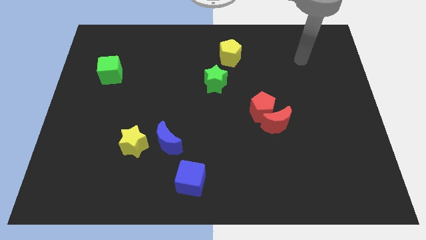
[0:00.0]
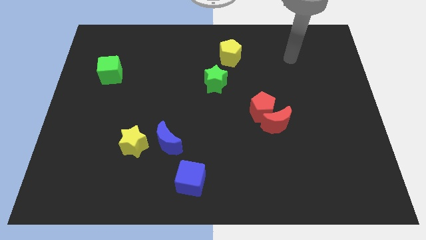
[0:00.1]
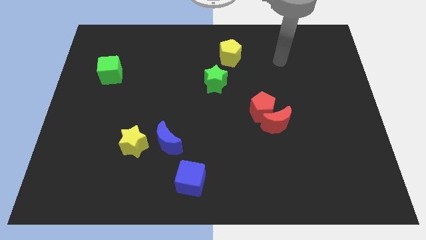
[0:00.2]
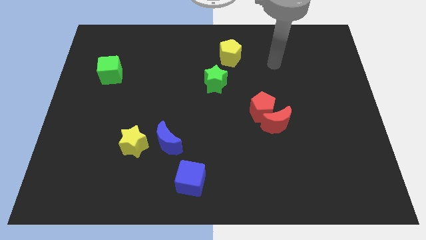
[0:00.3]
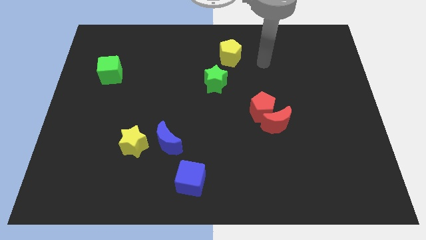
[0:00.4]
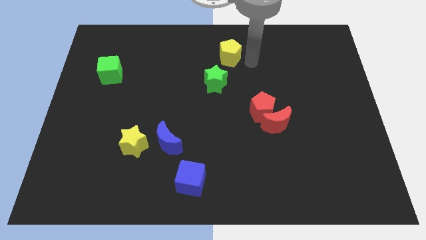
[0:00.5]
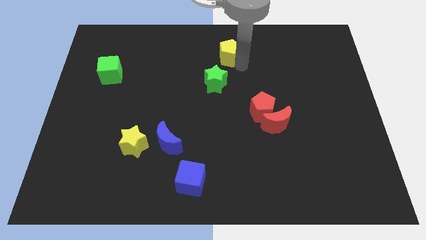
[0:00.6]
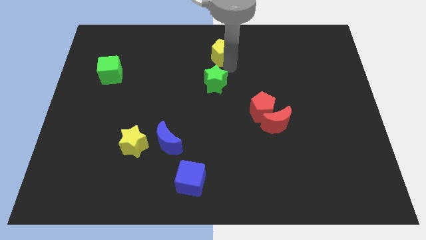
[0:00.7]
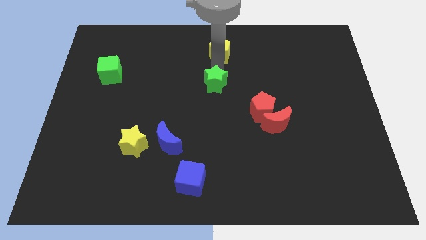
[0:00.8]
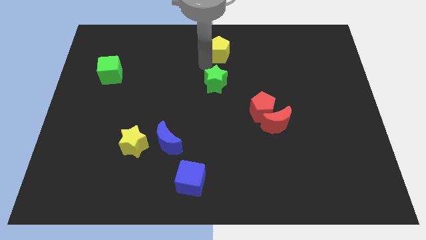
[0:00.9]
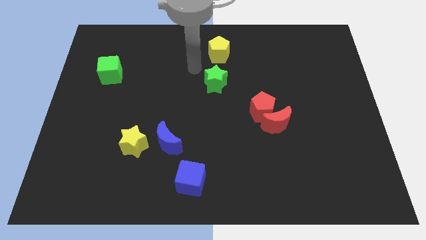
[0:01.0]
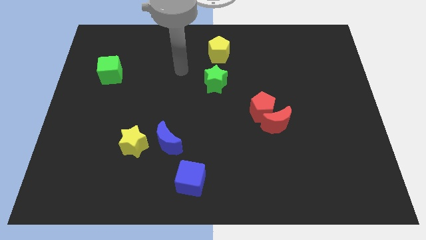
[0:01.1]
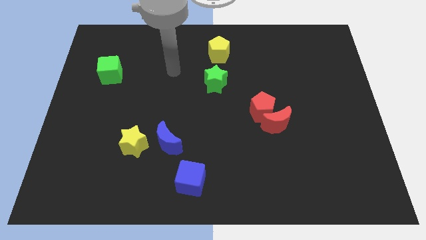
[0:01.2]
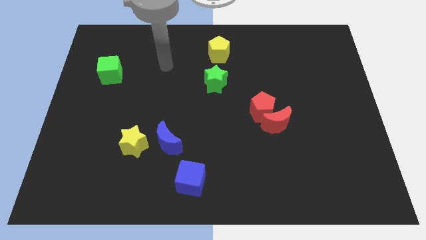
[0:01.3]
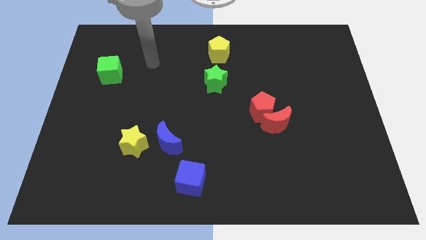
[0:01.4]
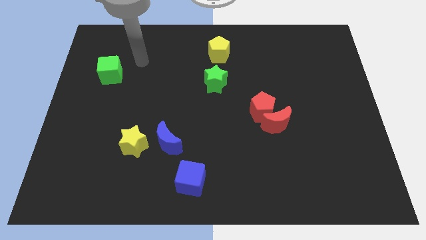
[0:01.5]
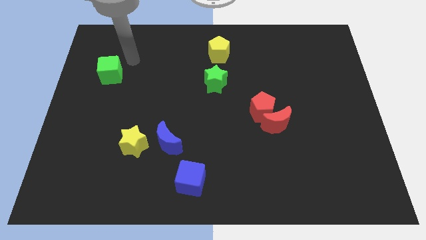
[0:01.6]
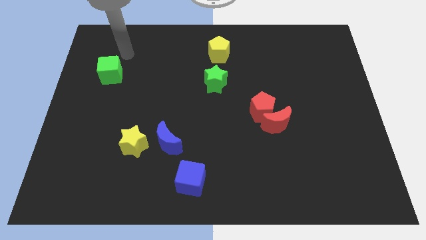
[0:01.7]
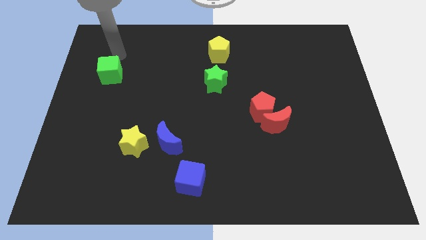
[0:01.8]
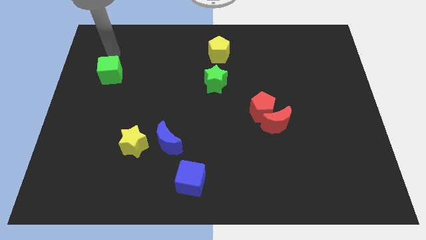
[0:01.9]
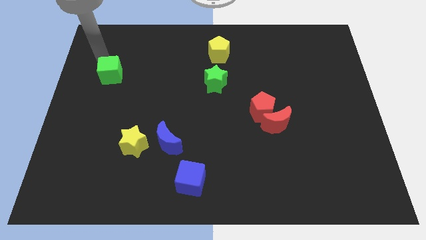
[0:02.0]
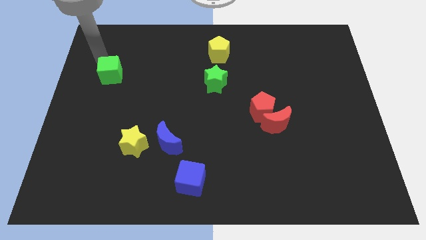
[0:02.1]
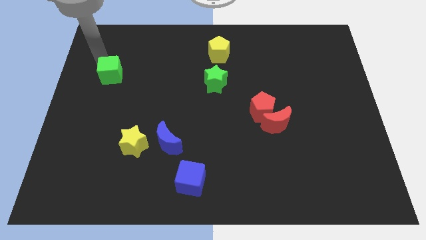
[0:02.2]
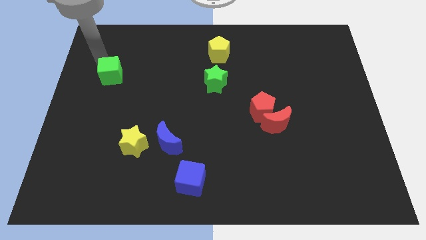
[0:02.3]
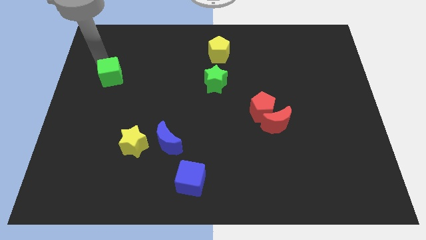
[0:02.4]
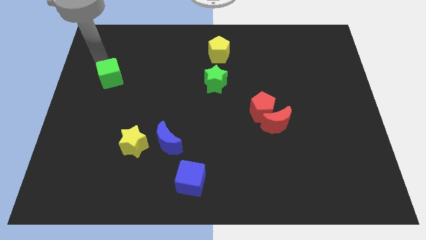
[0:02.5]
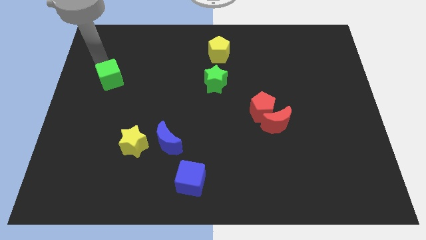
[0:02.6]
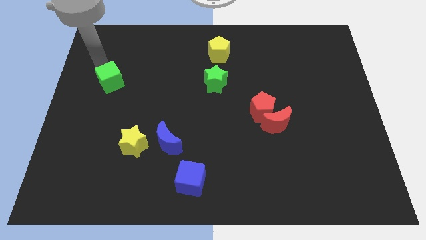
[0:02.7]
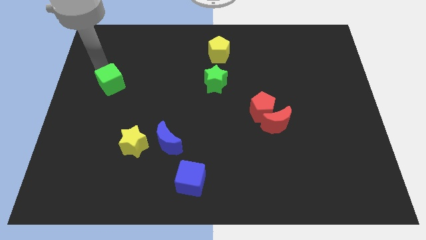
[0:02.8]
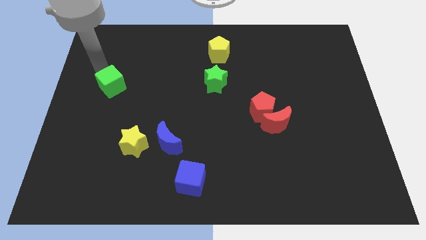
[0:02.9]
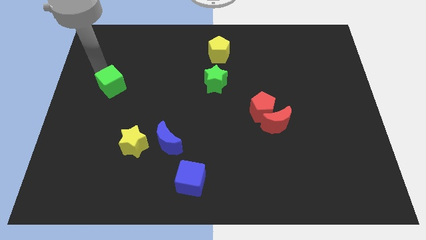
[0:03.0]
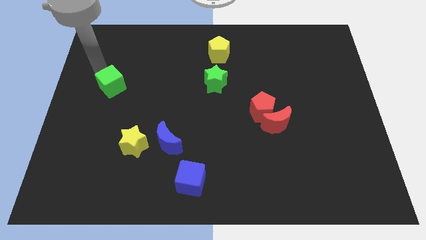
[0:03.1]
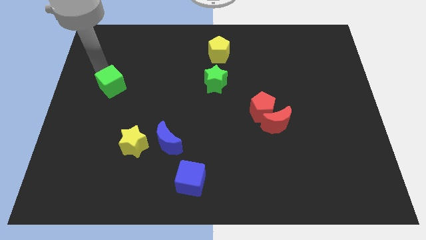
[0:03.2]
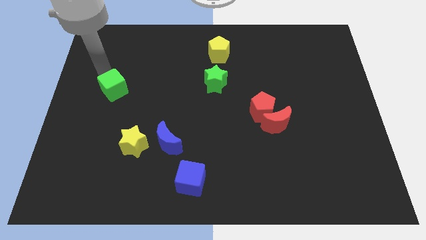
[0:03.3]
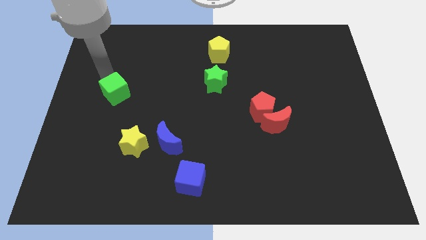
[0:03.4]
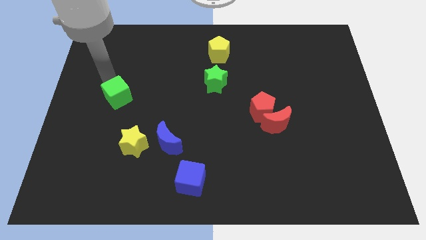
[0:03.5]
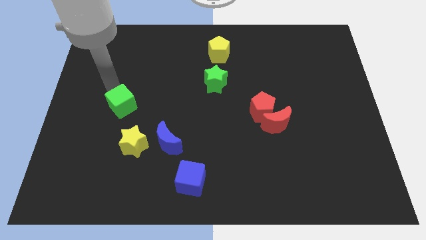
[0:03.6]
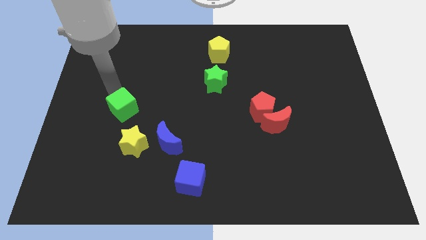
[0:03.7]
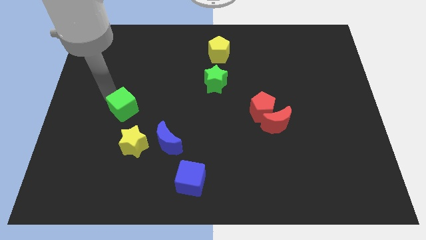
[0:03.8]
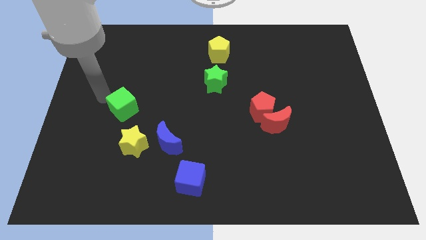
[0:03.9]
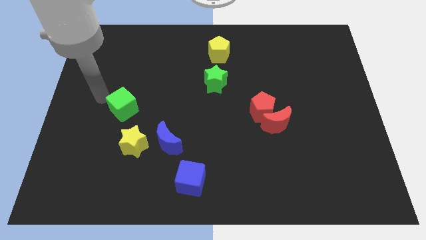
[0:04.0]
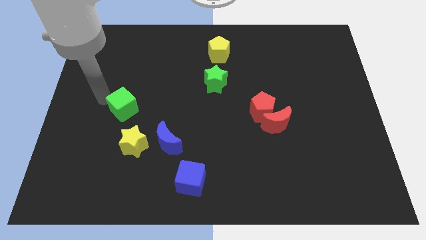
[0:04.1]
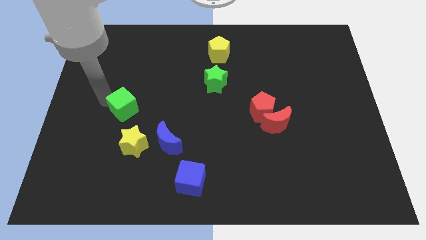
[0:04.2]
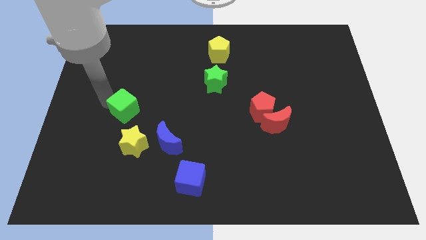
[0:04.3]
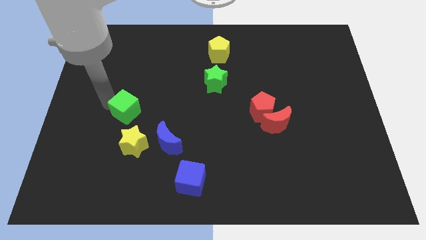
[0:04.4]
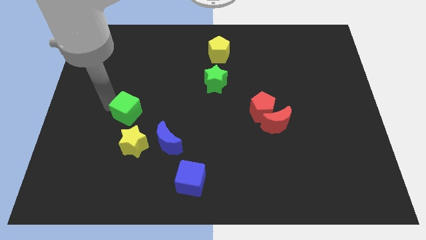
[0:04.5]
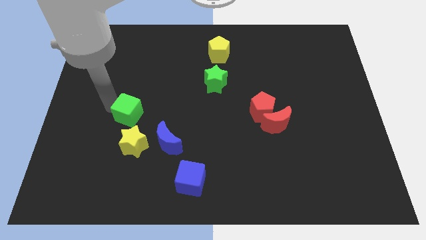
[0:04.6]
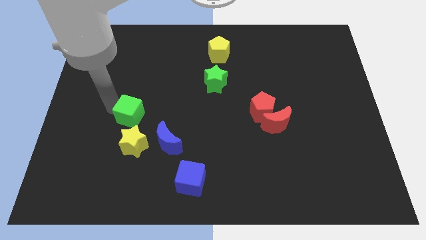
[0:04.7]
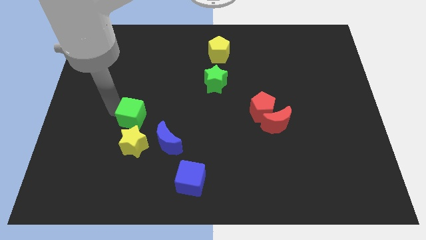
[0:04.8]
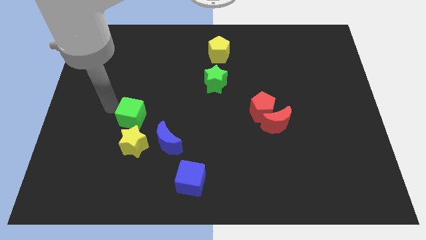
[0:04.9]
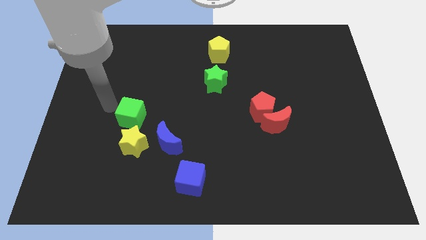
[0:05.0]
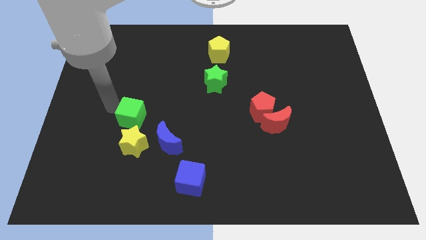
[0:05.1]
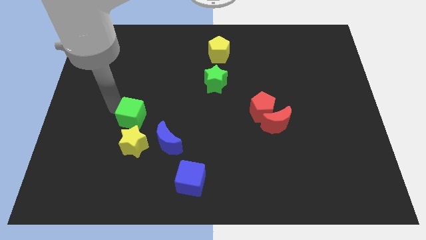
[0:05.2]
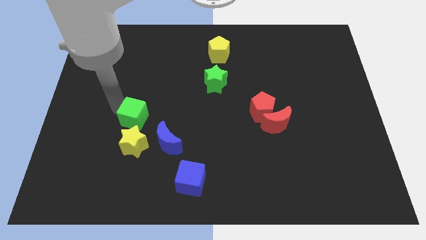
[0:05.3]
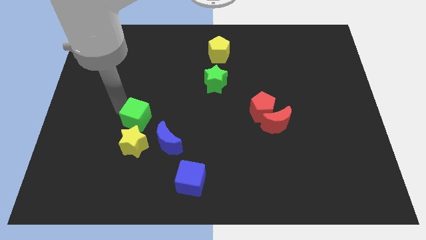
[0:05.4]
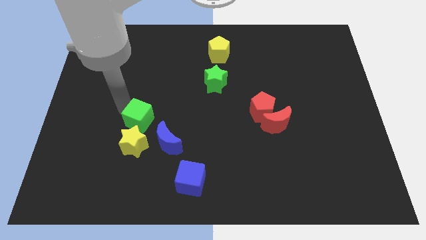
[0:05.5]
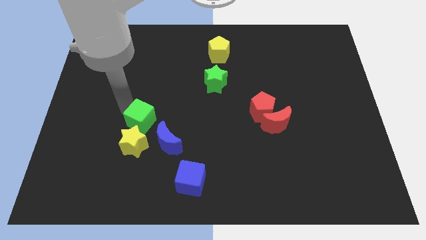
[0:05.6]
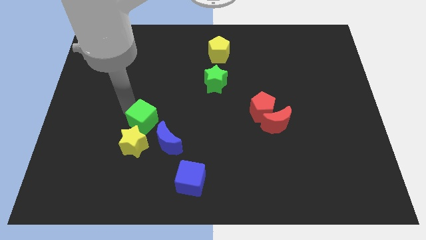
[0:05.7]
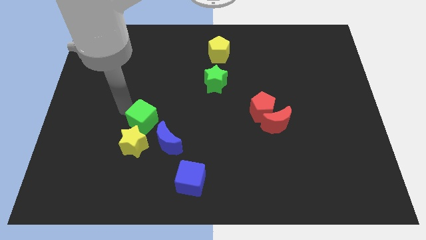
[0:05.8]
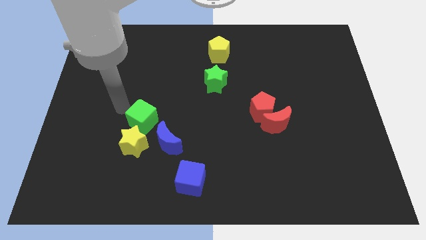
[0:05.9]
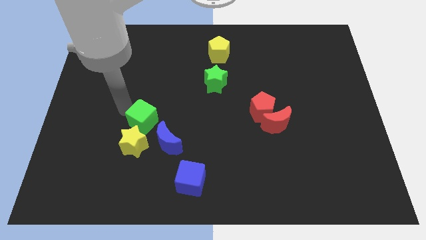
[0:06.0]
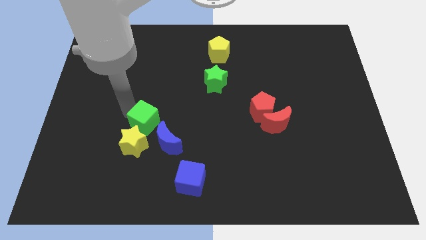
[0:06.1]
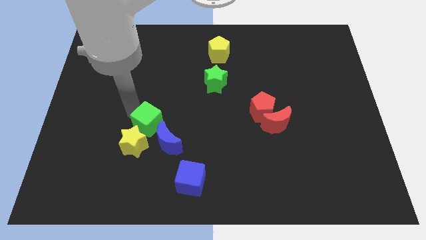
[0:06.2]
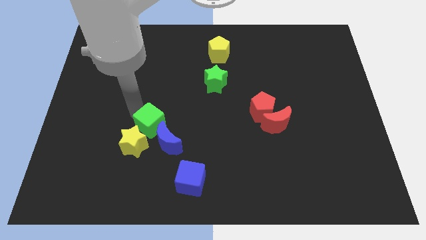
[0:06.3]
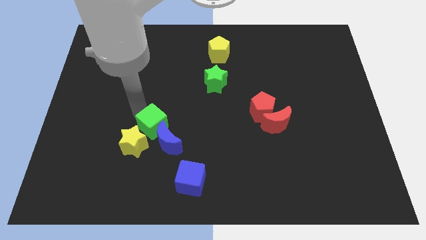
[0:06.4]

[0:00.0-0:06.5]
move the green cube to the blue moon
